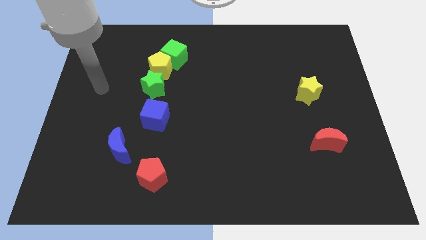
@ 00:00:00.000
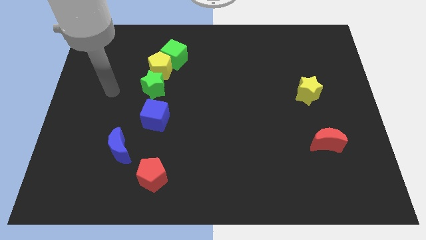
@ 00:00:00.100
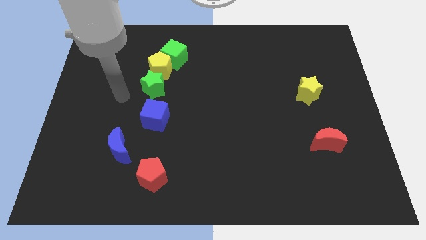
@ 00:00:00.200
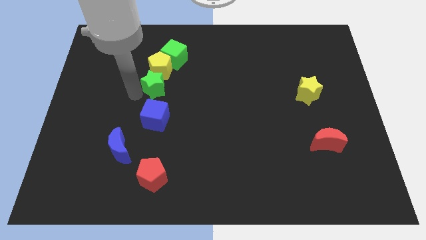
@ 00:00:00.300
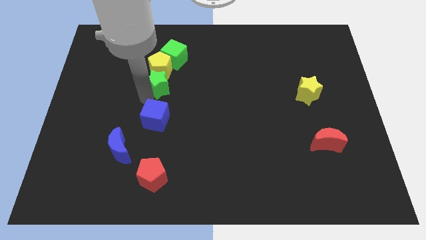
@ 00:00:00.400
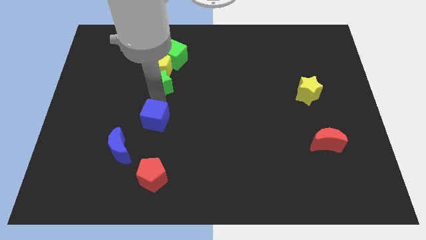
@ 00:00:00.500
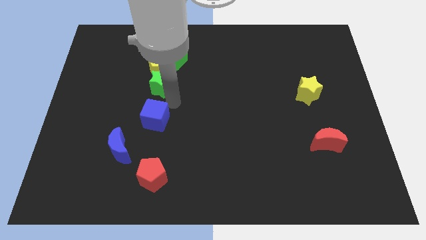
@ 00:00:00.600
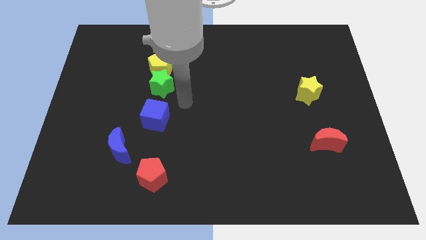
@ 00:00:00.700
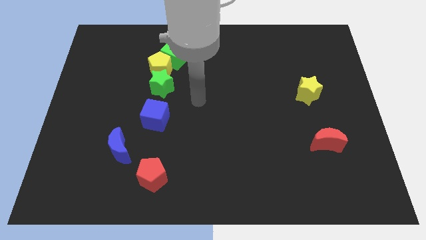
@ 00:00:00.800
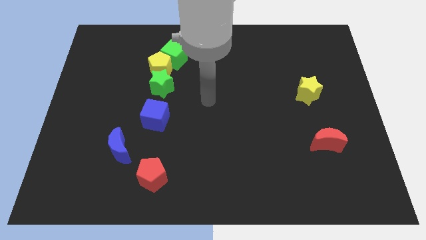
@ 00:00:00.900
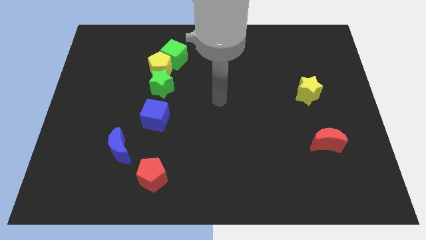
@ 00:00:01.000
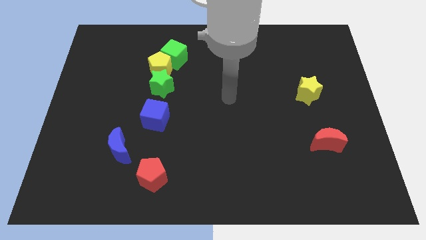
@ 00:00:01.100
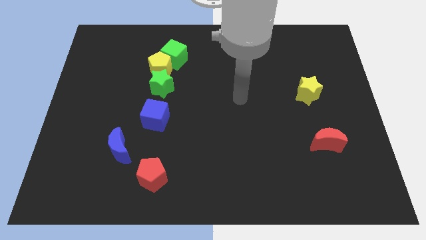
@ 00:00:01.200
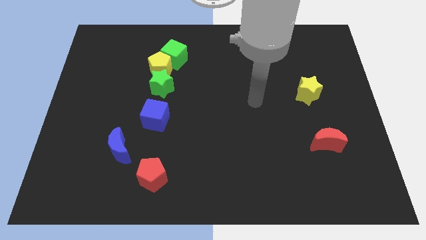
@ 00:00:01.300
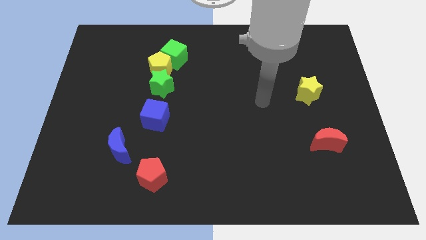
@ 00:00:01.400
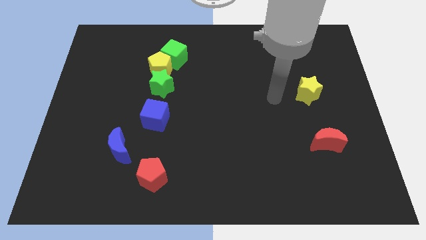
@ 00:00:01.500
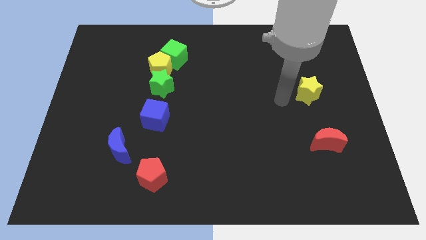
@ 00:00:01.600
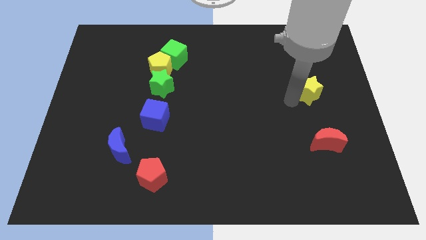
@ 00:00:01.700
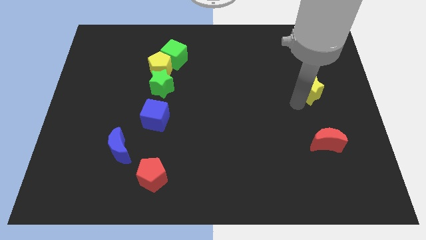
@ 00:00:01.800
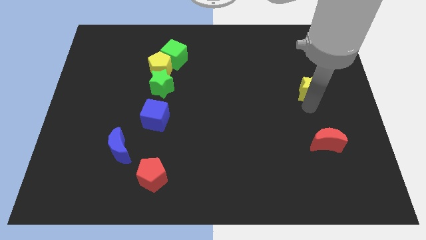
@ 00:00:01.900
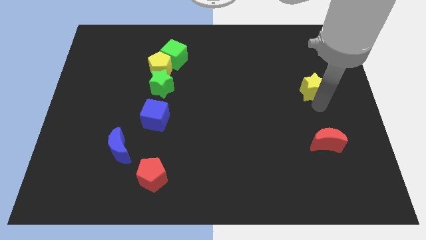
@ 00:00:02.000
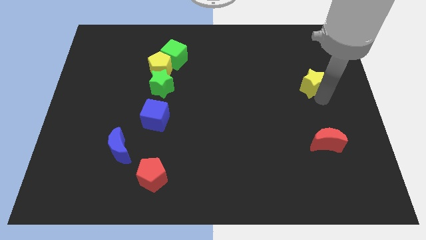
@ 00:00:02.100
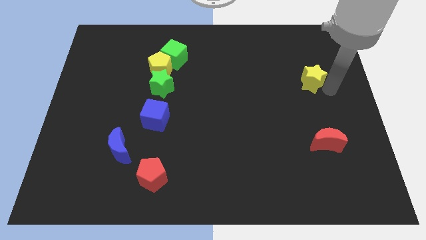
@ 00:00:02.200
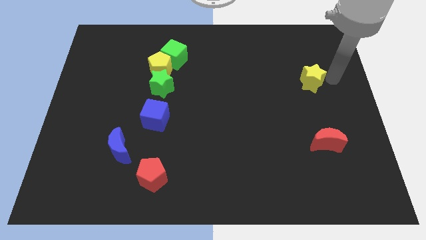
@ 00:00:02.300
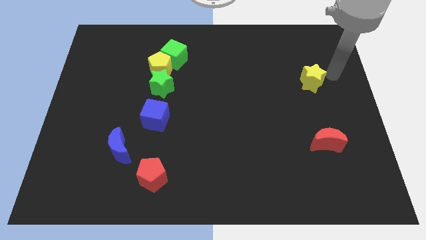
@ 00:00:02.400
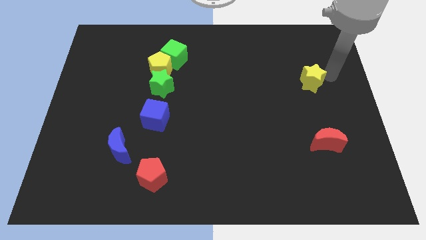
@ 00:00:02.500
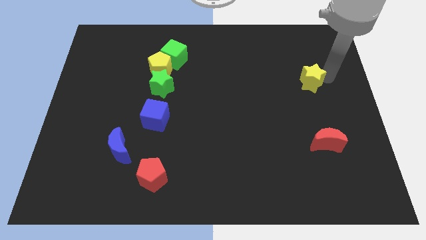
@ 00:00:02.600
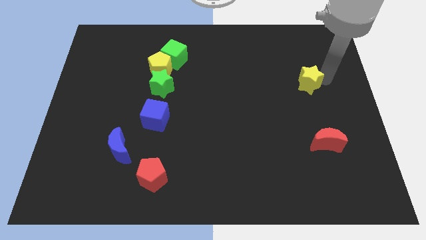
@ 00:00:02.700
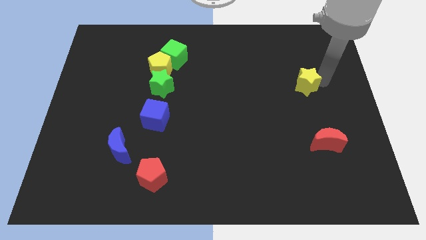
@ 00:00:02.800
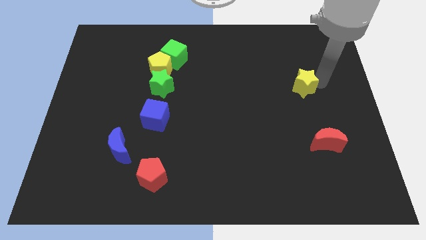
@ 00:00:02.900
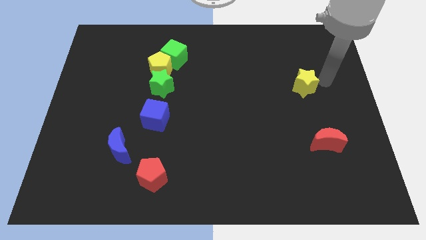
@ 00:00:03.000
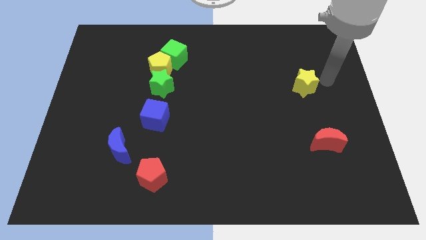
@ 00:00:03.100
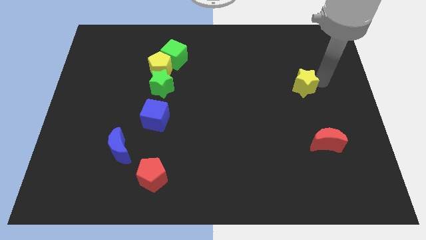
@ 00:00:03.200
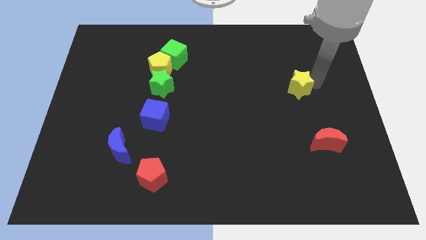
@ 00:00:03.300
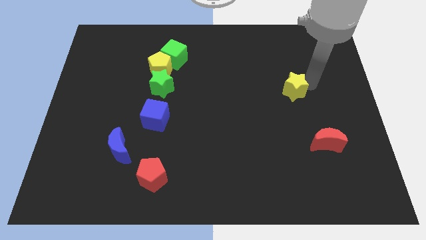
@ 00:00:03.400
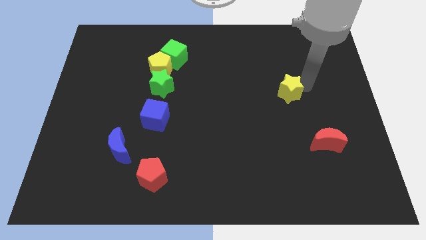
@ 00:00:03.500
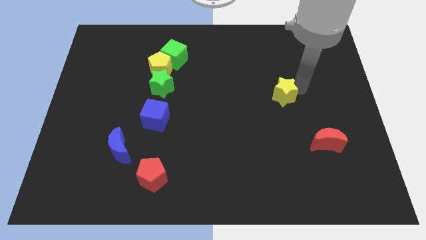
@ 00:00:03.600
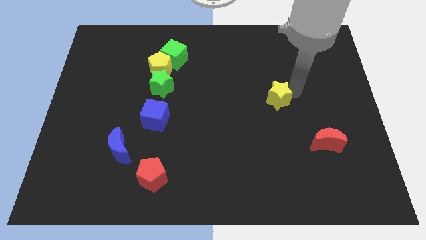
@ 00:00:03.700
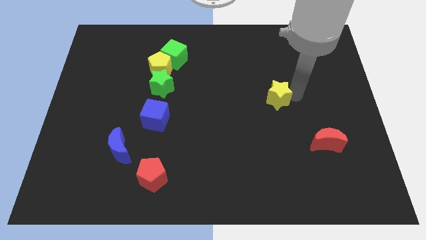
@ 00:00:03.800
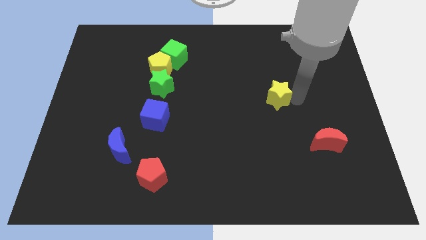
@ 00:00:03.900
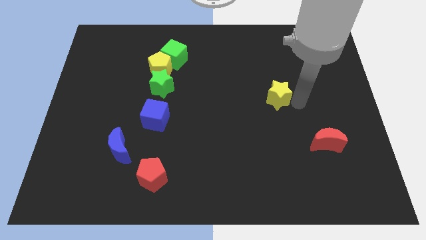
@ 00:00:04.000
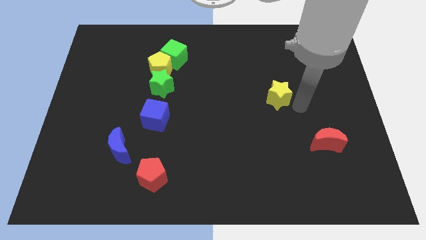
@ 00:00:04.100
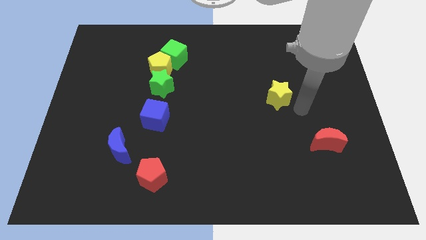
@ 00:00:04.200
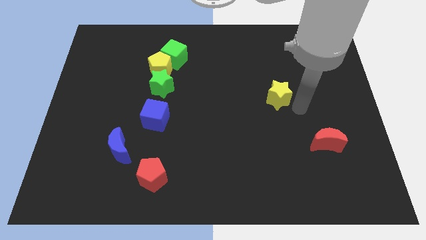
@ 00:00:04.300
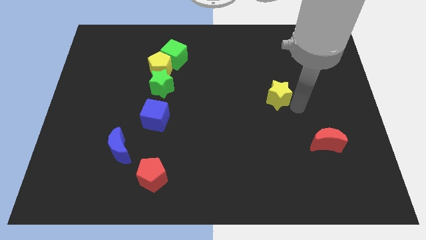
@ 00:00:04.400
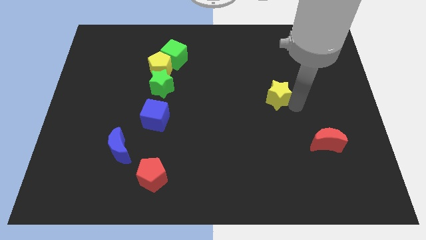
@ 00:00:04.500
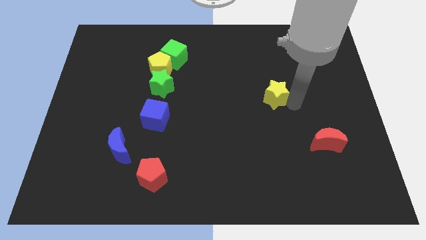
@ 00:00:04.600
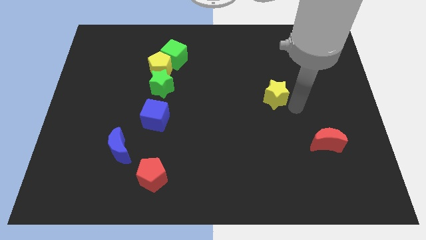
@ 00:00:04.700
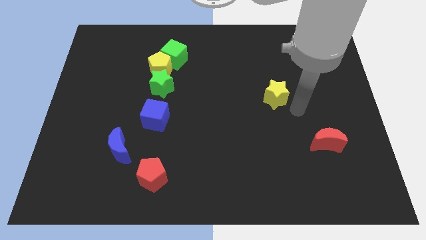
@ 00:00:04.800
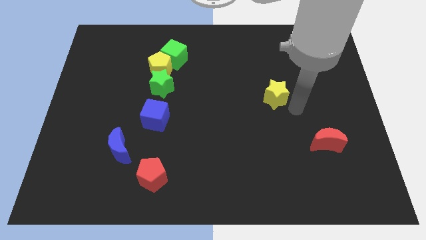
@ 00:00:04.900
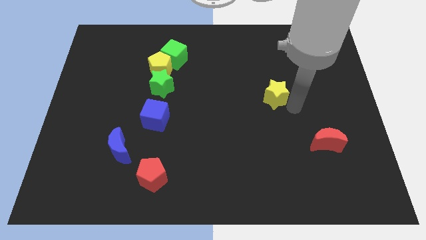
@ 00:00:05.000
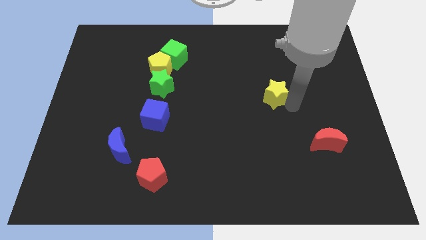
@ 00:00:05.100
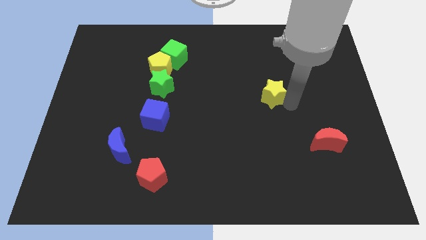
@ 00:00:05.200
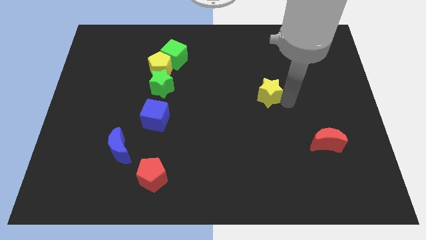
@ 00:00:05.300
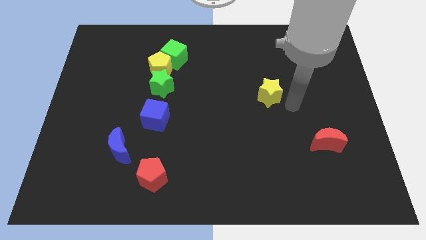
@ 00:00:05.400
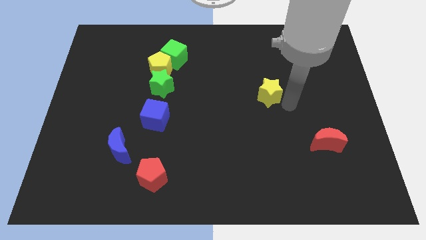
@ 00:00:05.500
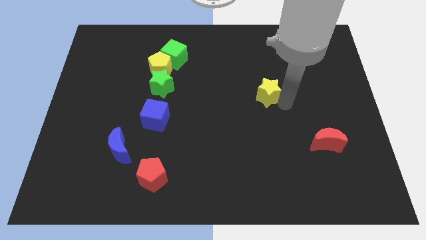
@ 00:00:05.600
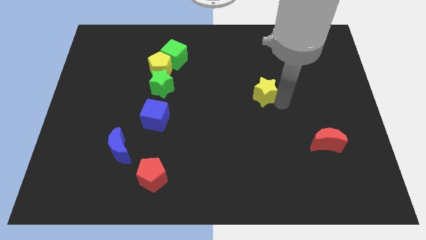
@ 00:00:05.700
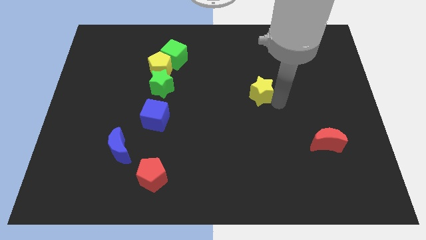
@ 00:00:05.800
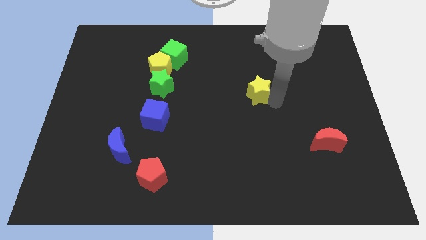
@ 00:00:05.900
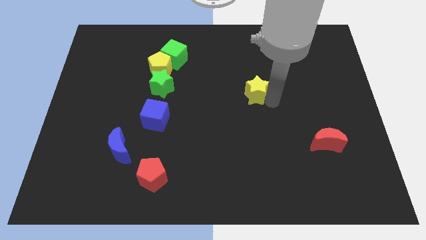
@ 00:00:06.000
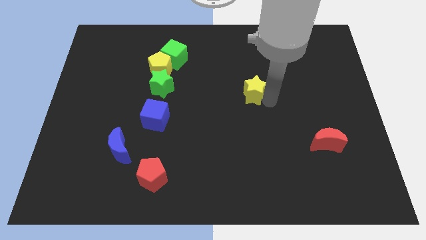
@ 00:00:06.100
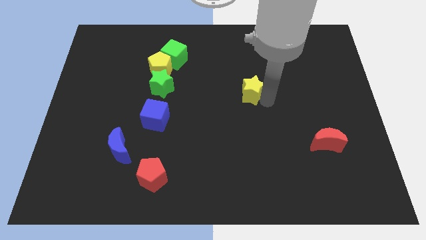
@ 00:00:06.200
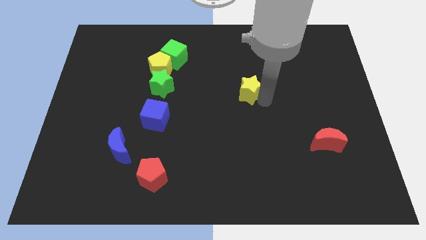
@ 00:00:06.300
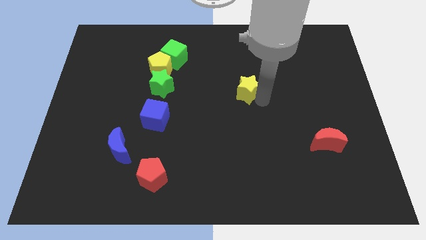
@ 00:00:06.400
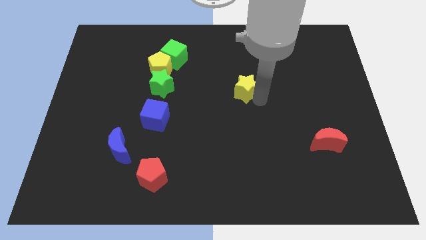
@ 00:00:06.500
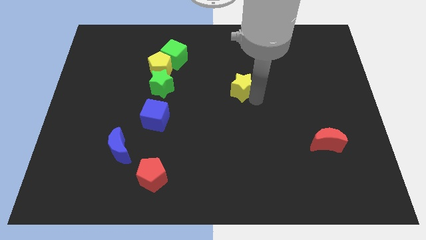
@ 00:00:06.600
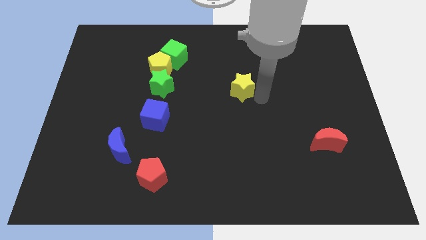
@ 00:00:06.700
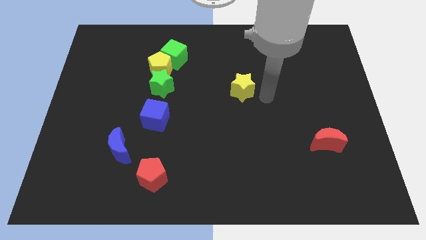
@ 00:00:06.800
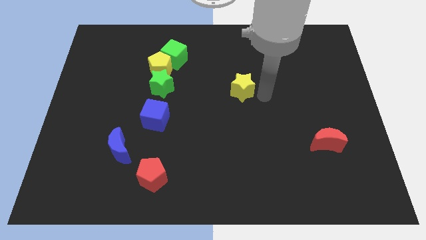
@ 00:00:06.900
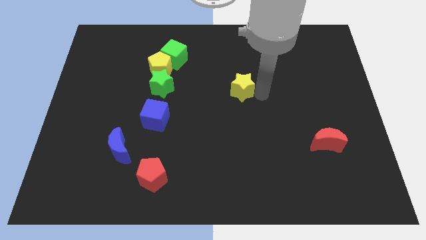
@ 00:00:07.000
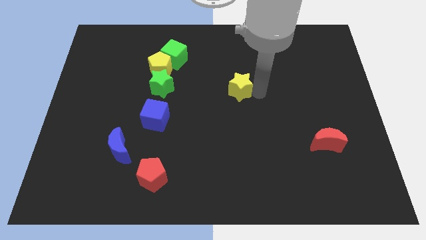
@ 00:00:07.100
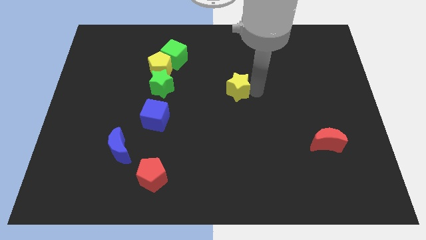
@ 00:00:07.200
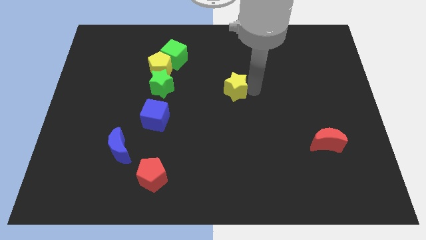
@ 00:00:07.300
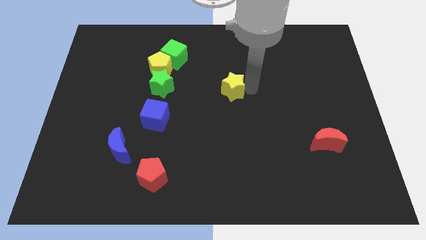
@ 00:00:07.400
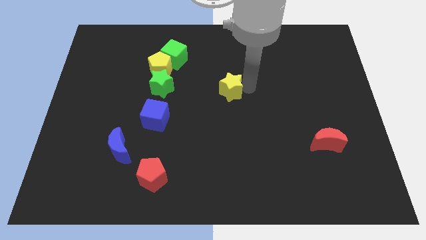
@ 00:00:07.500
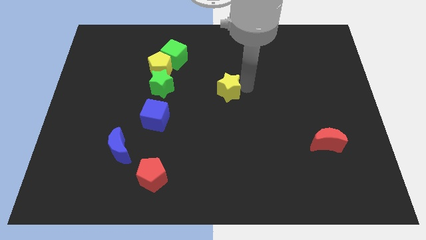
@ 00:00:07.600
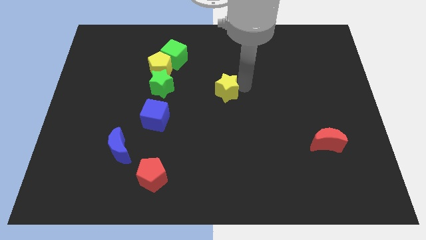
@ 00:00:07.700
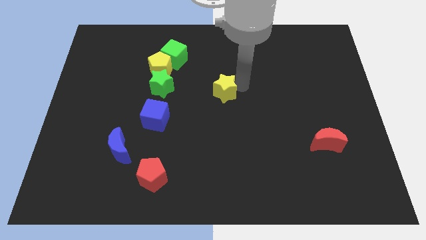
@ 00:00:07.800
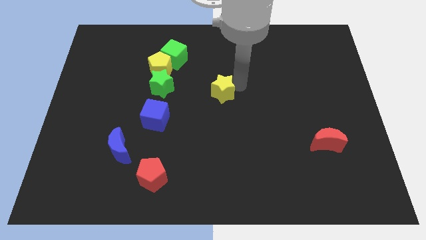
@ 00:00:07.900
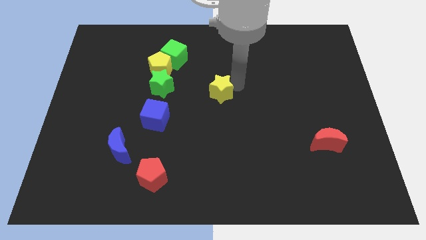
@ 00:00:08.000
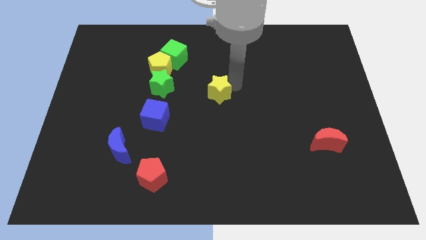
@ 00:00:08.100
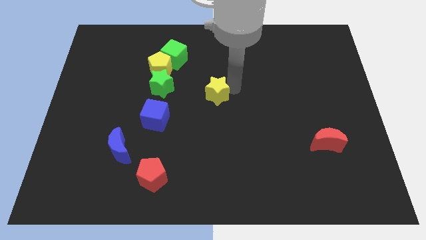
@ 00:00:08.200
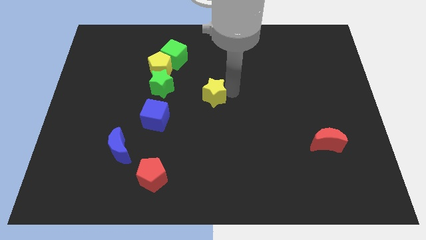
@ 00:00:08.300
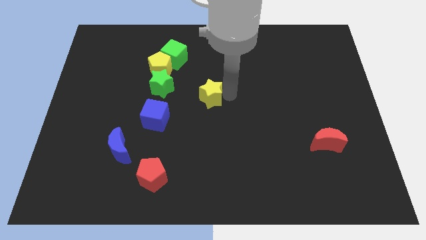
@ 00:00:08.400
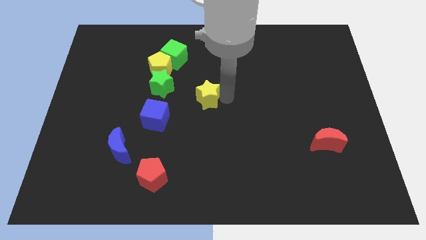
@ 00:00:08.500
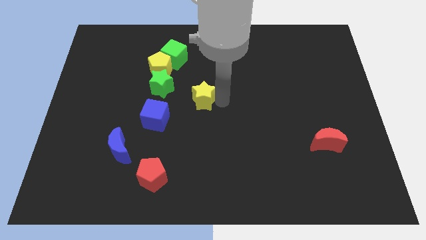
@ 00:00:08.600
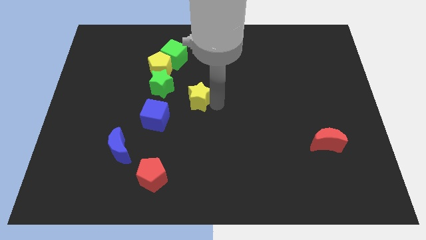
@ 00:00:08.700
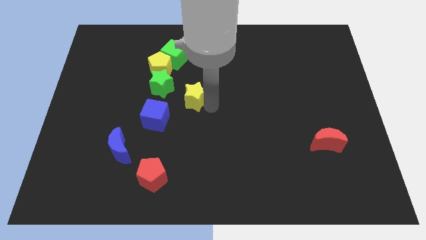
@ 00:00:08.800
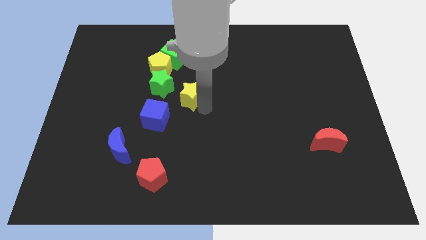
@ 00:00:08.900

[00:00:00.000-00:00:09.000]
move the yellow star to the bottom right of the yellow pentagon
